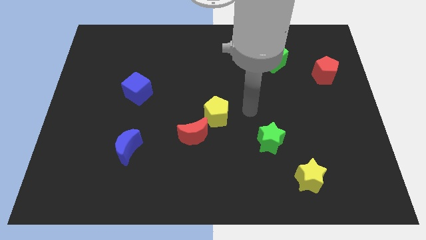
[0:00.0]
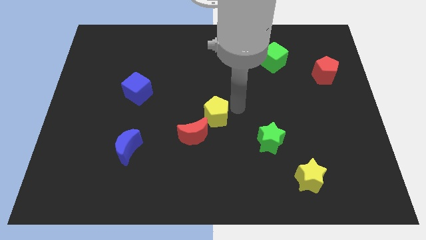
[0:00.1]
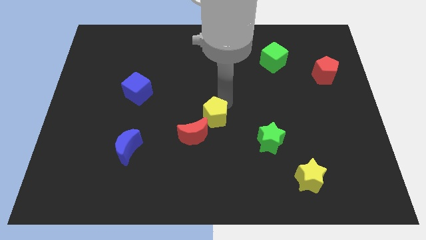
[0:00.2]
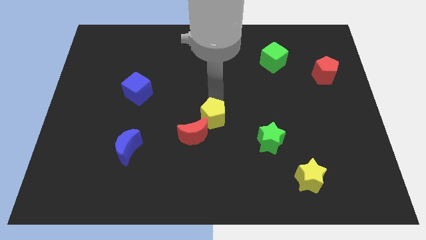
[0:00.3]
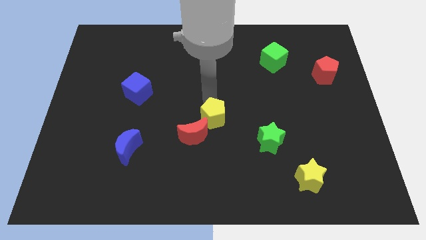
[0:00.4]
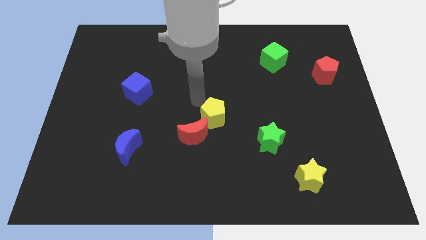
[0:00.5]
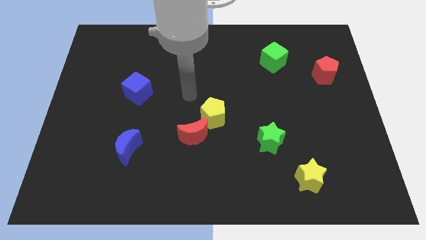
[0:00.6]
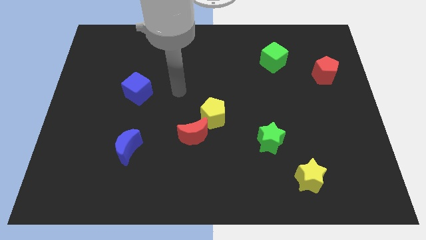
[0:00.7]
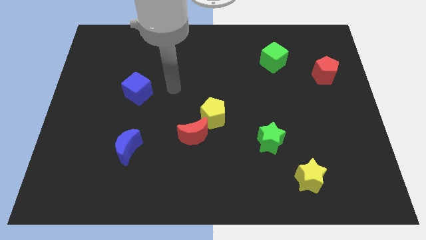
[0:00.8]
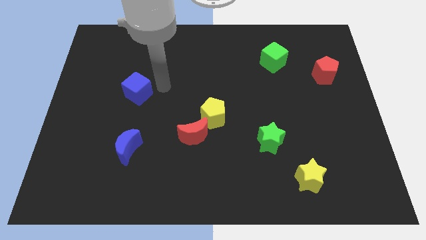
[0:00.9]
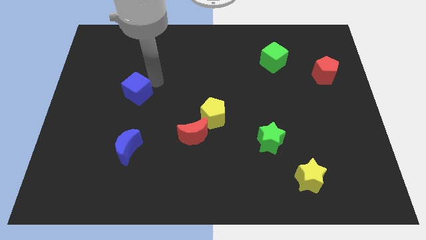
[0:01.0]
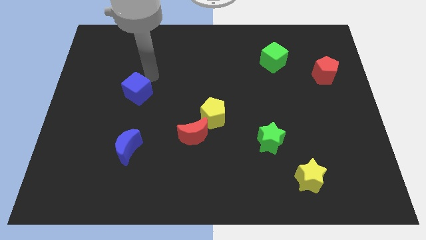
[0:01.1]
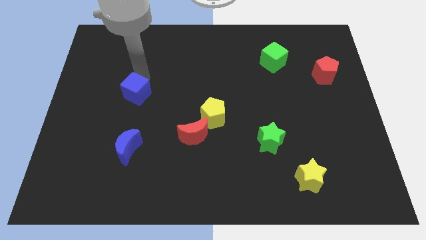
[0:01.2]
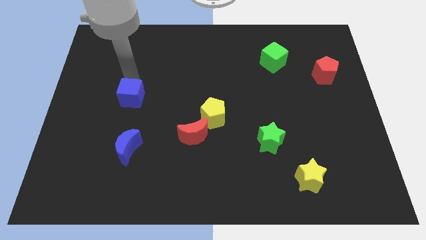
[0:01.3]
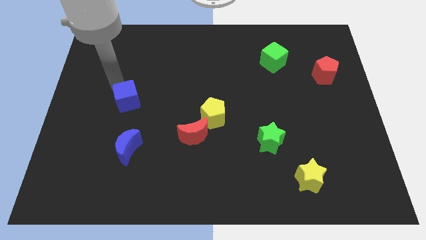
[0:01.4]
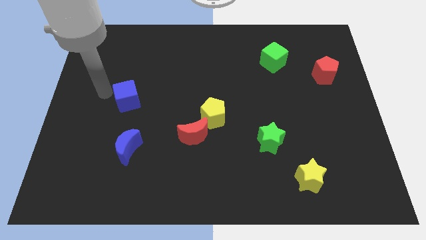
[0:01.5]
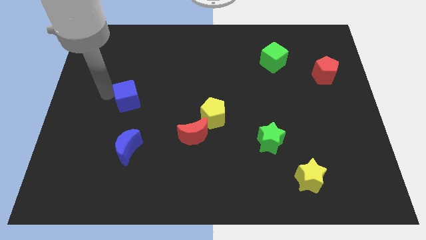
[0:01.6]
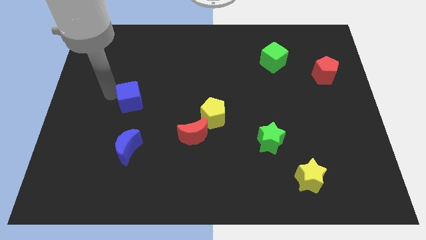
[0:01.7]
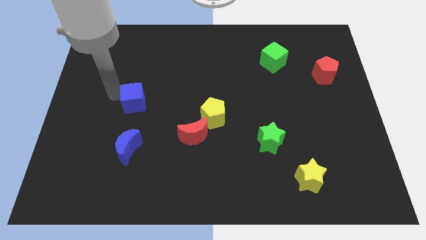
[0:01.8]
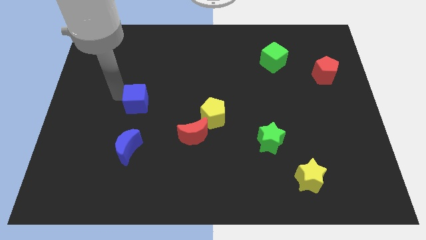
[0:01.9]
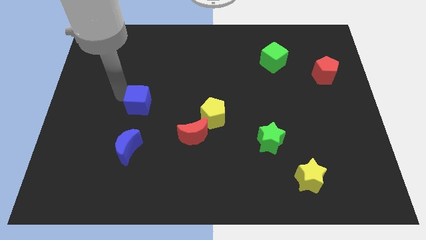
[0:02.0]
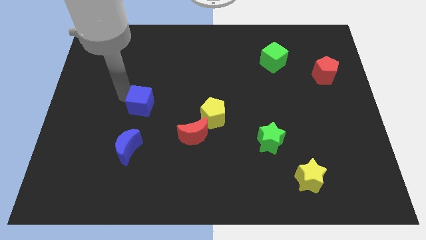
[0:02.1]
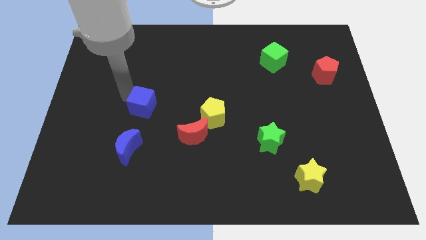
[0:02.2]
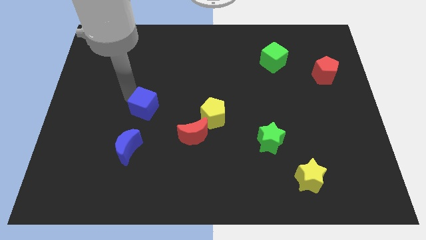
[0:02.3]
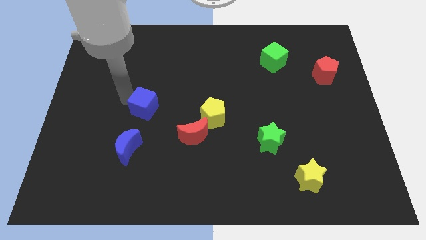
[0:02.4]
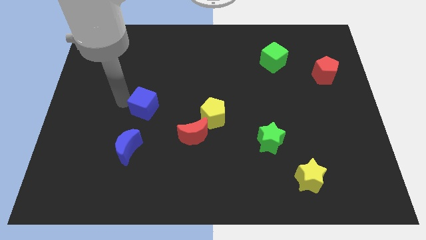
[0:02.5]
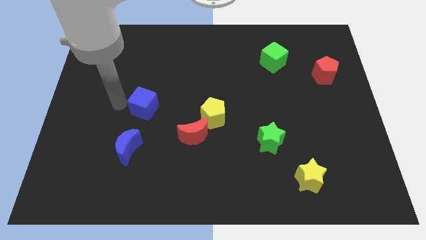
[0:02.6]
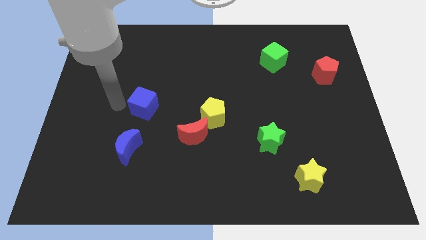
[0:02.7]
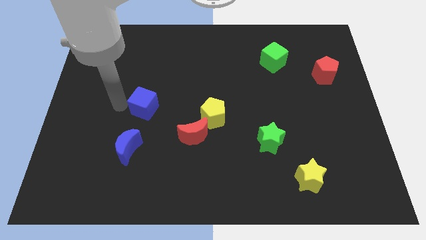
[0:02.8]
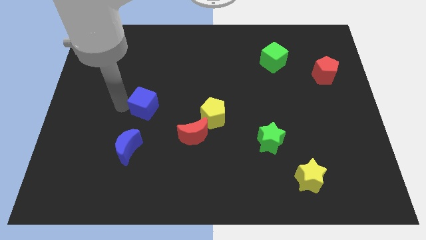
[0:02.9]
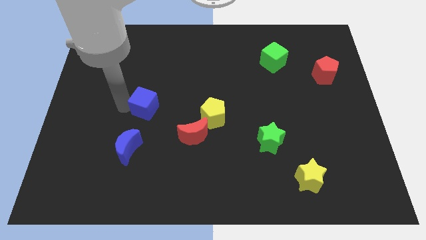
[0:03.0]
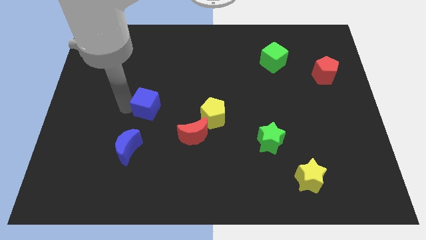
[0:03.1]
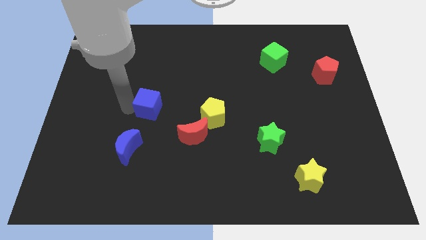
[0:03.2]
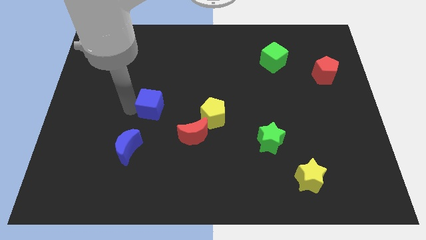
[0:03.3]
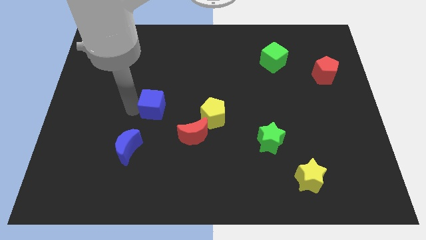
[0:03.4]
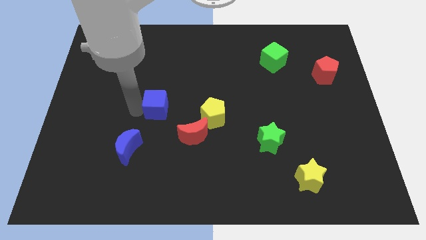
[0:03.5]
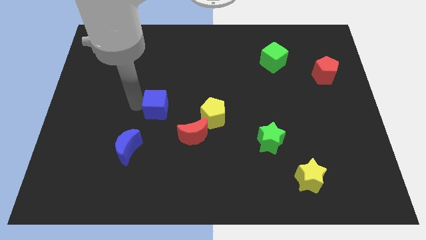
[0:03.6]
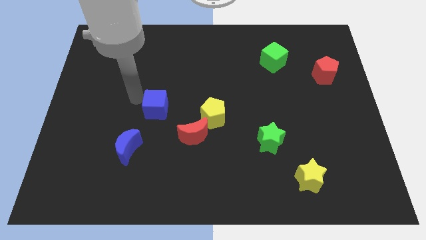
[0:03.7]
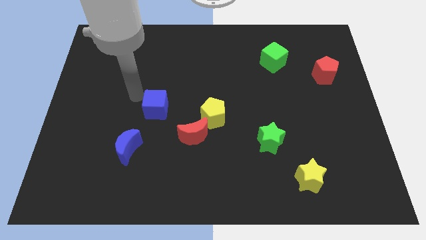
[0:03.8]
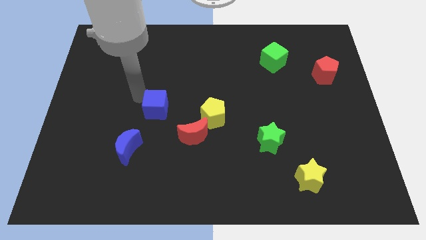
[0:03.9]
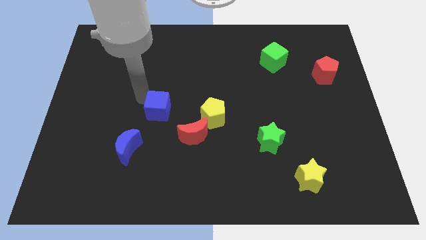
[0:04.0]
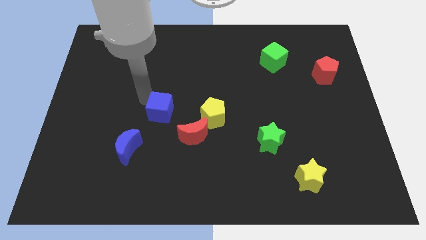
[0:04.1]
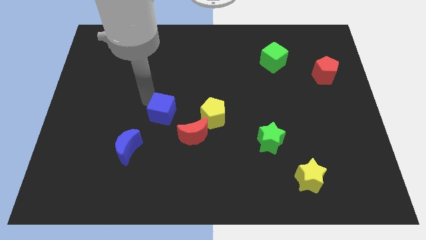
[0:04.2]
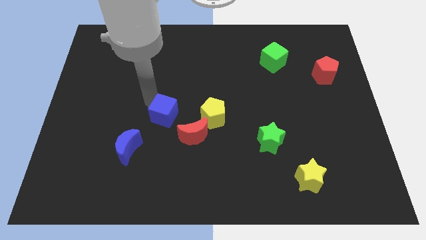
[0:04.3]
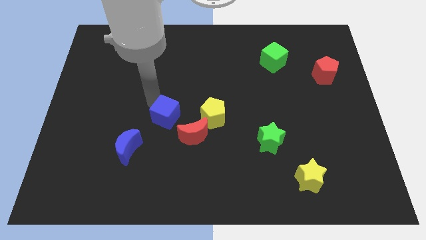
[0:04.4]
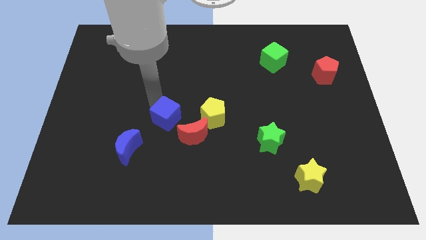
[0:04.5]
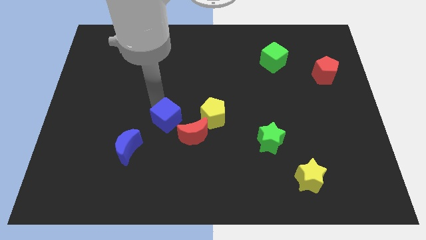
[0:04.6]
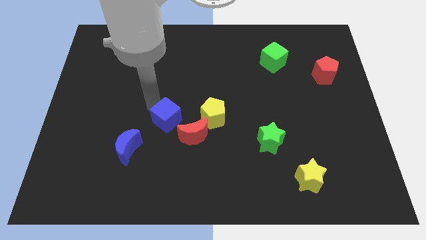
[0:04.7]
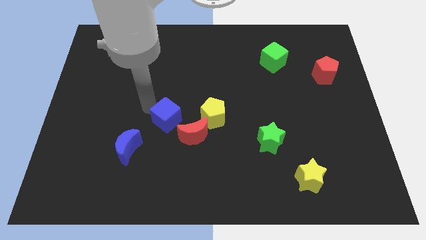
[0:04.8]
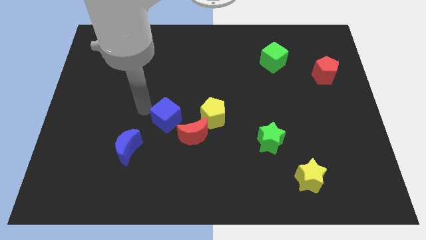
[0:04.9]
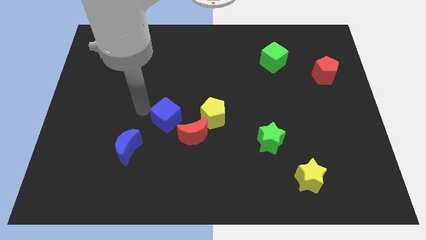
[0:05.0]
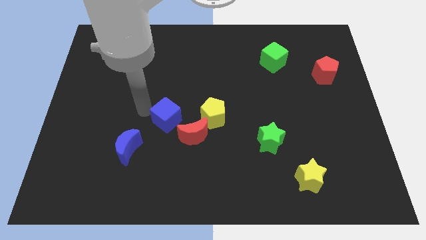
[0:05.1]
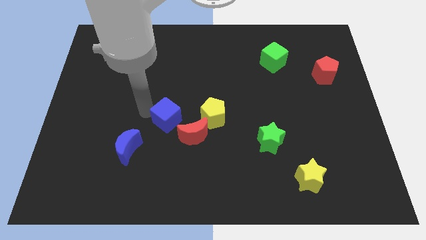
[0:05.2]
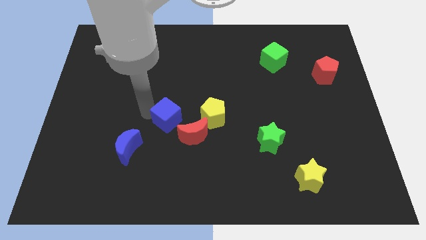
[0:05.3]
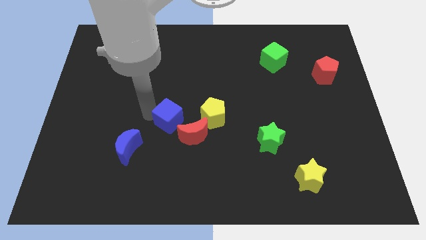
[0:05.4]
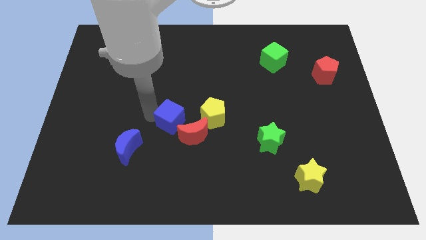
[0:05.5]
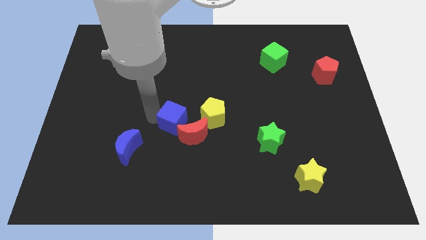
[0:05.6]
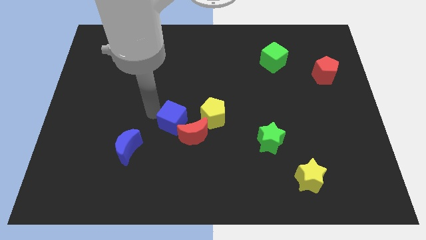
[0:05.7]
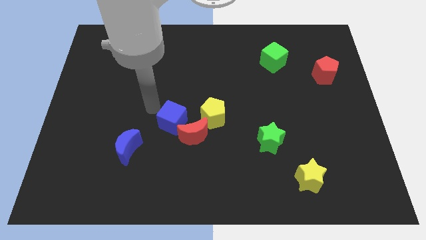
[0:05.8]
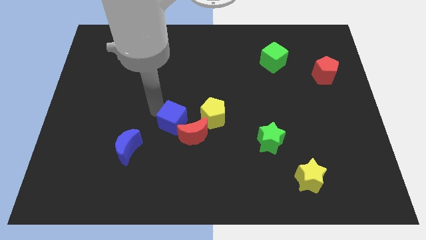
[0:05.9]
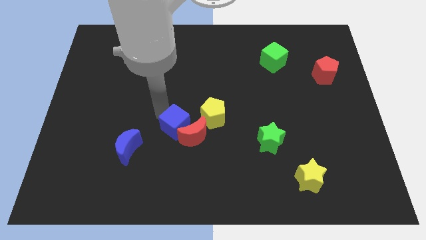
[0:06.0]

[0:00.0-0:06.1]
slide the blue cube next to the red moon

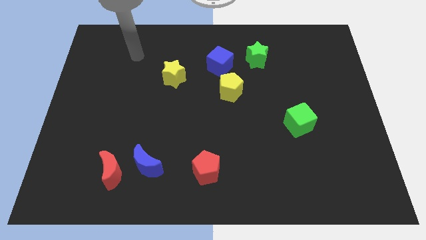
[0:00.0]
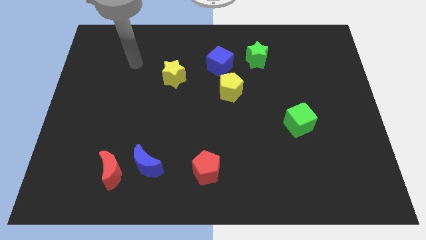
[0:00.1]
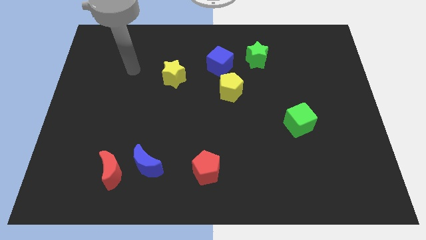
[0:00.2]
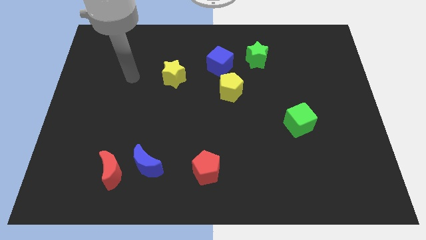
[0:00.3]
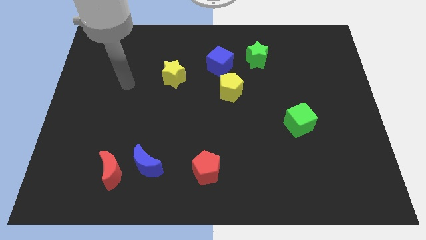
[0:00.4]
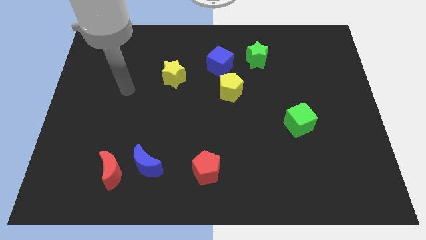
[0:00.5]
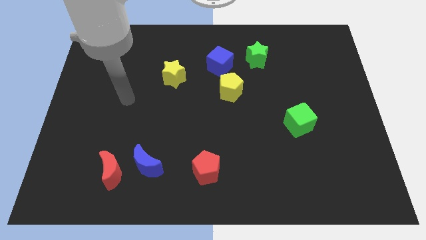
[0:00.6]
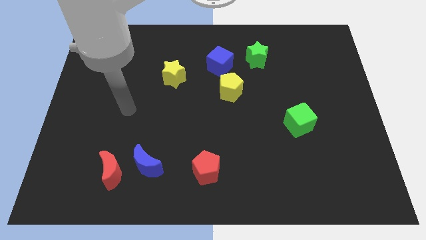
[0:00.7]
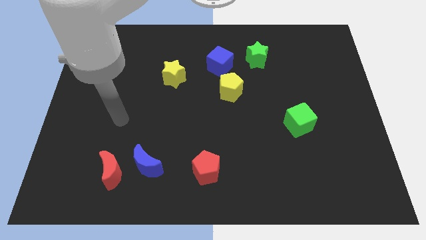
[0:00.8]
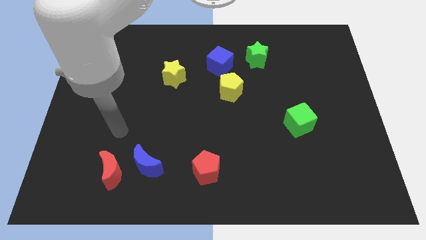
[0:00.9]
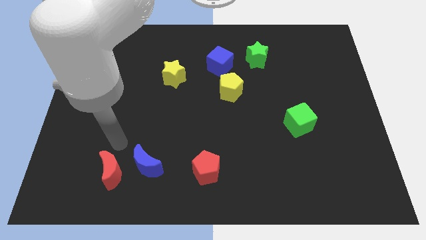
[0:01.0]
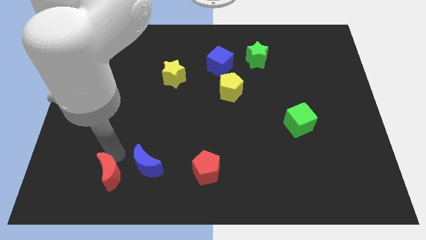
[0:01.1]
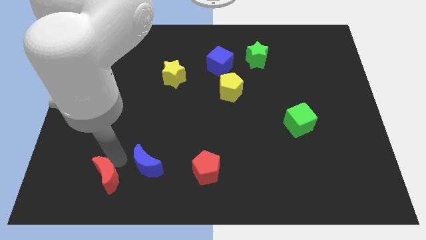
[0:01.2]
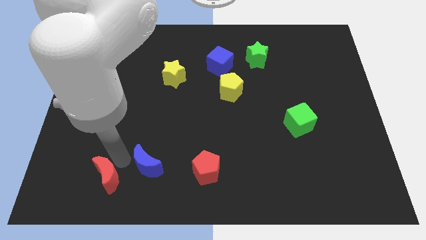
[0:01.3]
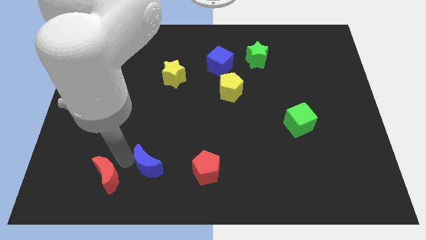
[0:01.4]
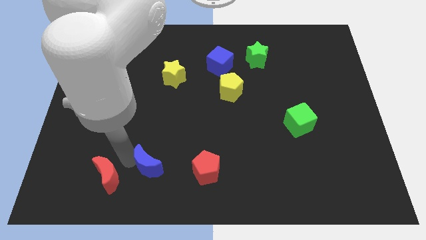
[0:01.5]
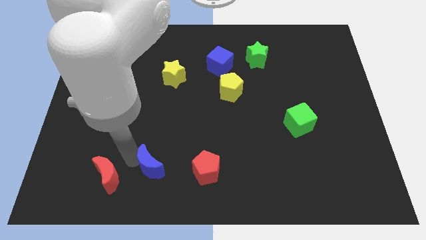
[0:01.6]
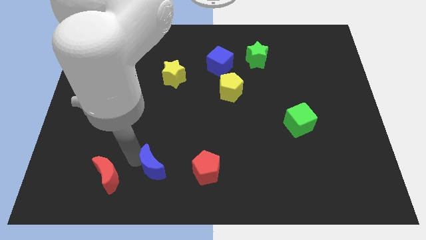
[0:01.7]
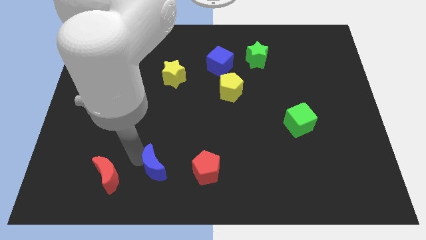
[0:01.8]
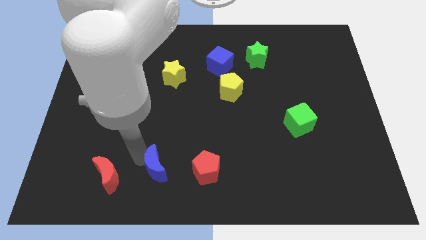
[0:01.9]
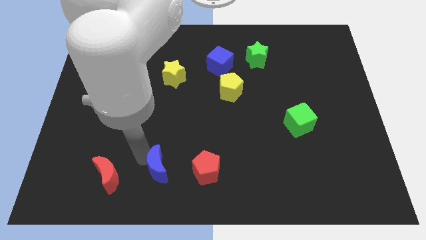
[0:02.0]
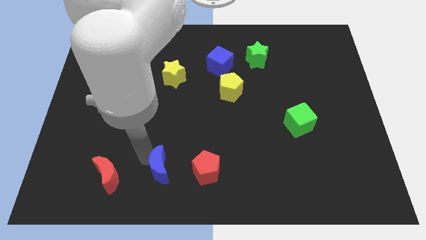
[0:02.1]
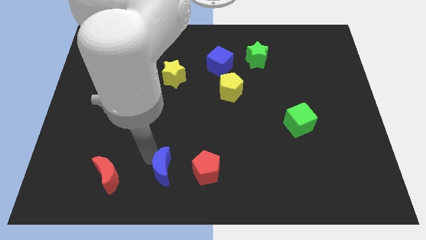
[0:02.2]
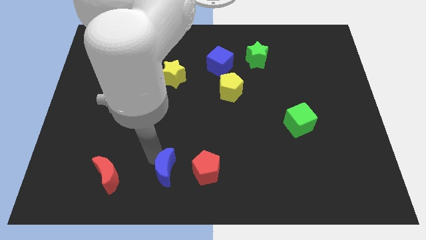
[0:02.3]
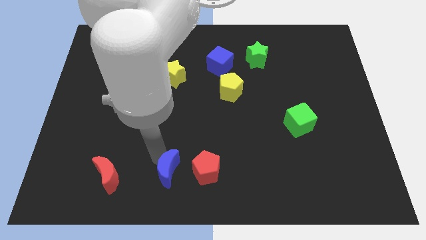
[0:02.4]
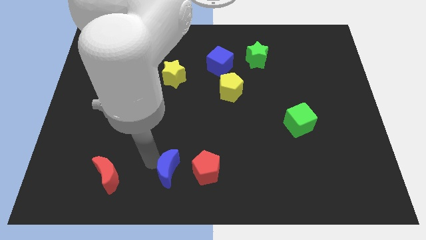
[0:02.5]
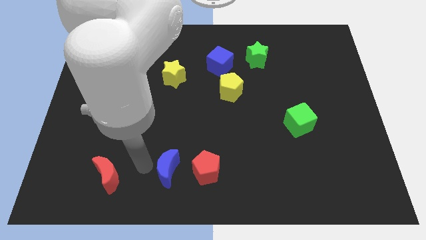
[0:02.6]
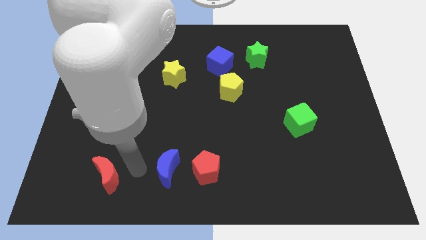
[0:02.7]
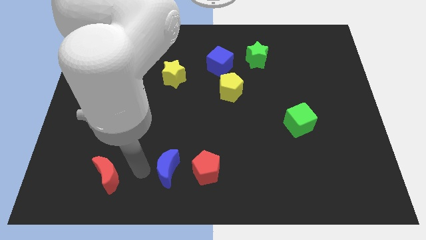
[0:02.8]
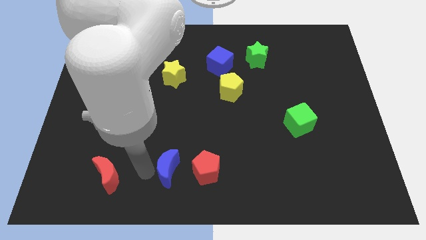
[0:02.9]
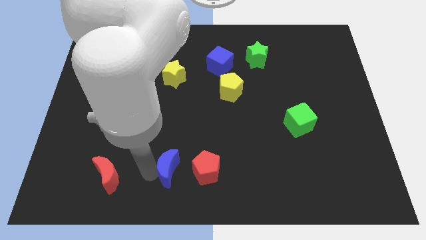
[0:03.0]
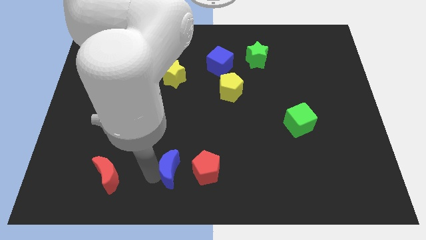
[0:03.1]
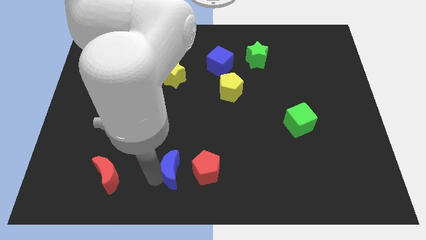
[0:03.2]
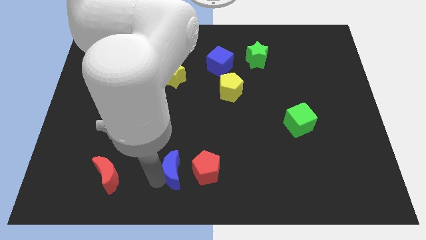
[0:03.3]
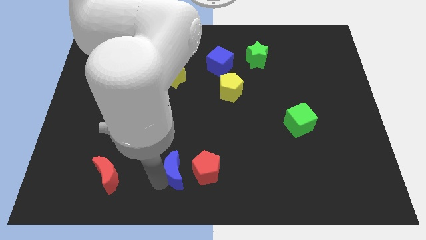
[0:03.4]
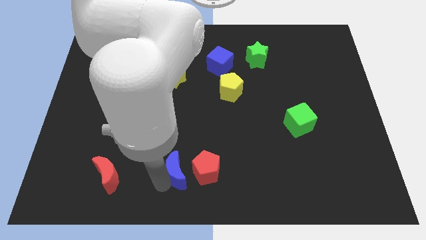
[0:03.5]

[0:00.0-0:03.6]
push the blue moon towards the red pentagon
